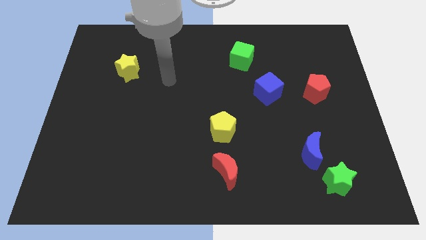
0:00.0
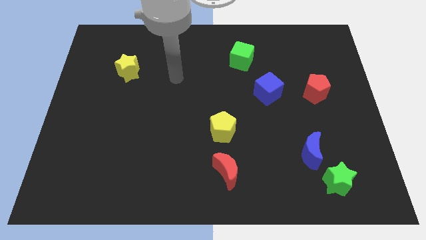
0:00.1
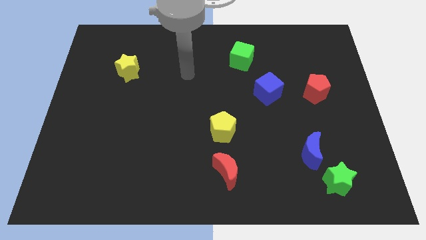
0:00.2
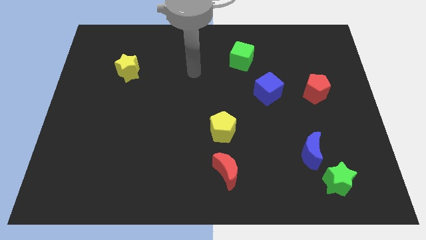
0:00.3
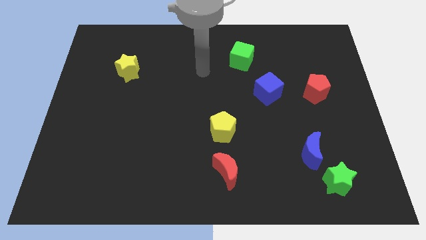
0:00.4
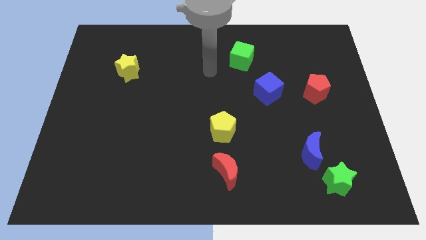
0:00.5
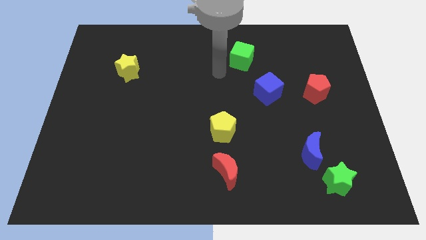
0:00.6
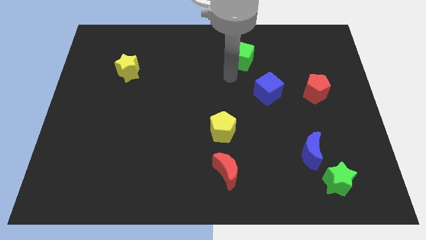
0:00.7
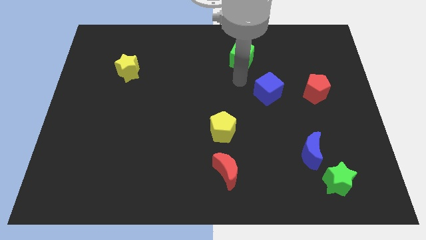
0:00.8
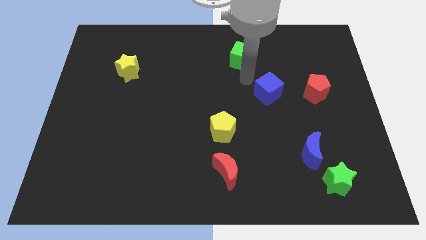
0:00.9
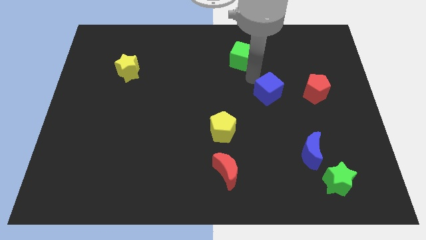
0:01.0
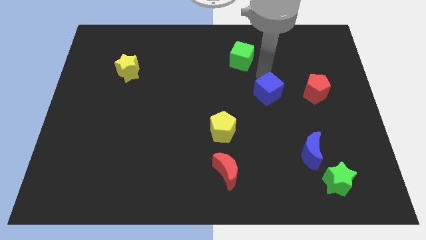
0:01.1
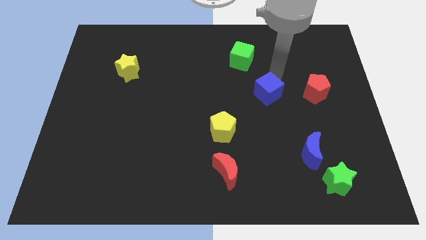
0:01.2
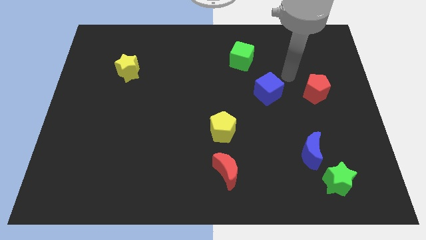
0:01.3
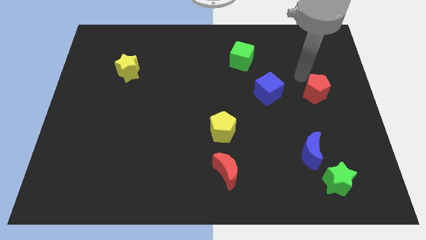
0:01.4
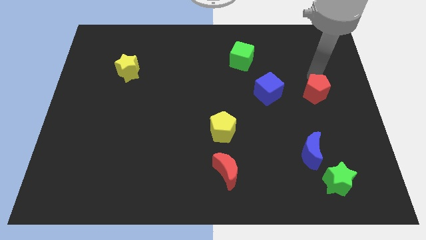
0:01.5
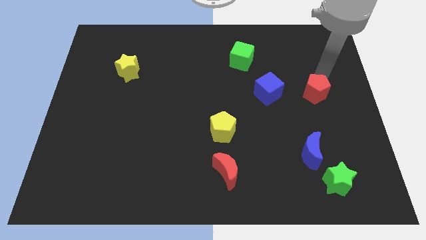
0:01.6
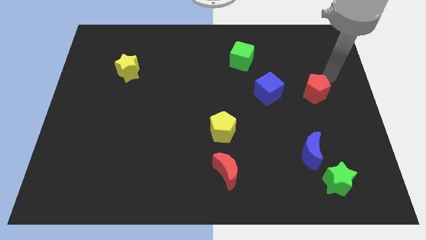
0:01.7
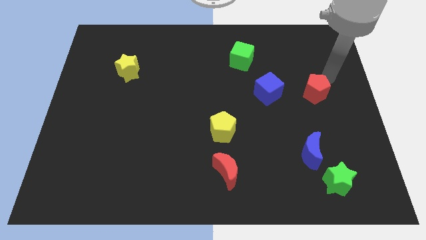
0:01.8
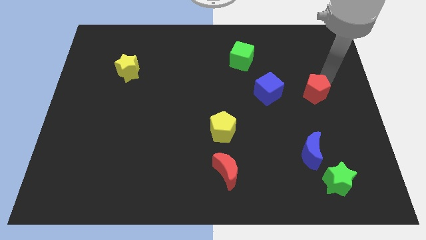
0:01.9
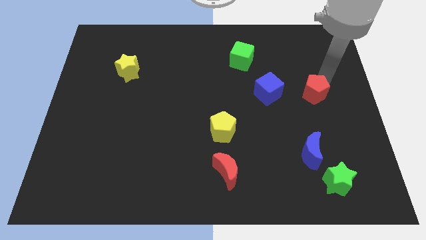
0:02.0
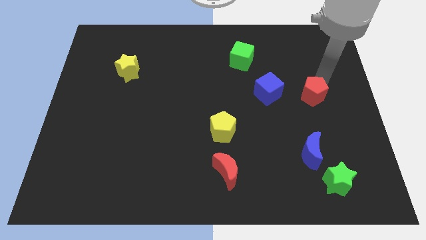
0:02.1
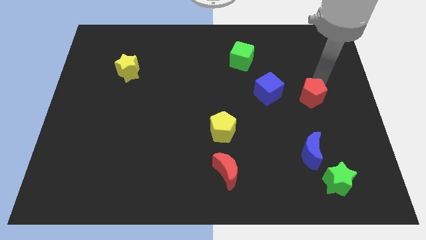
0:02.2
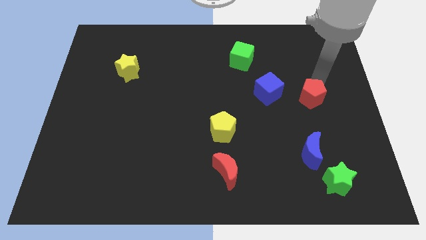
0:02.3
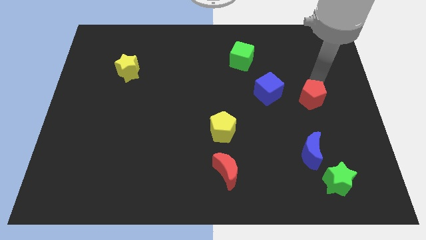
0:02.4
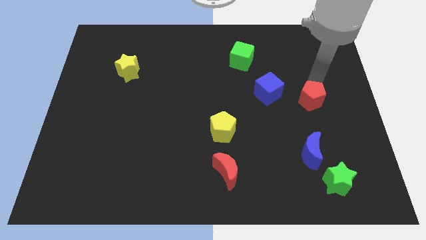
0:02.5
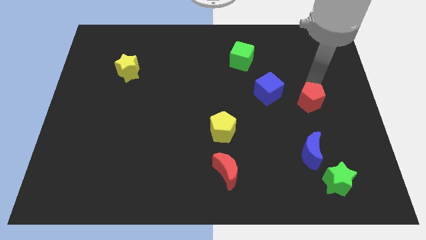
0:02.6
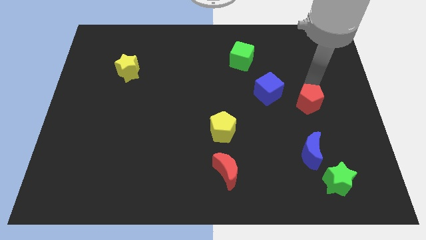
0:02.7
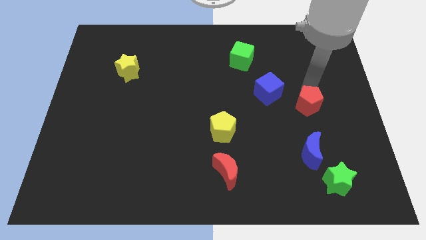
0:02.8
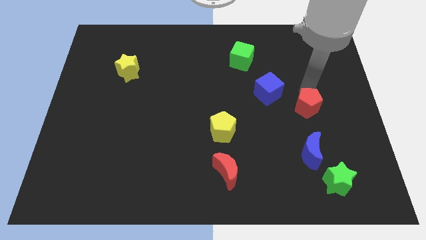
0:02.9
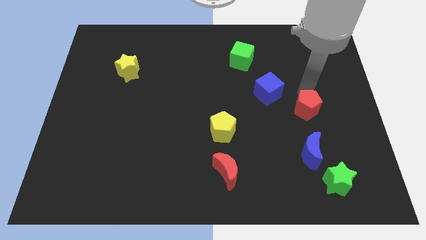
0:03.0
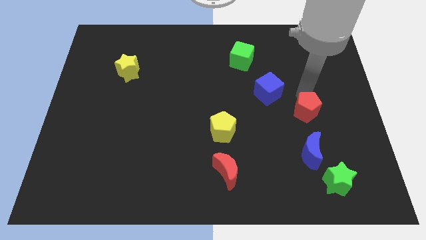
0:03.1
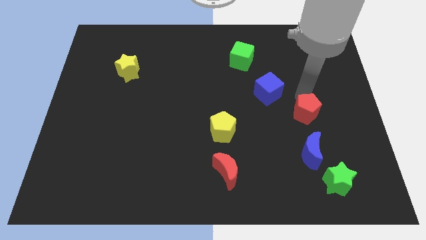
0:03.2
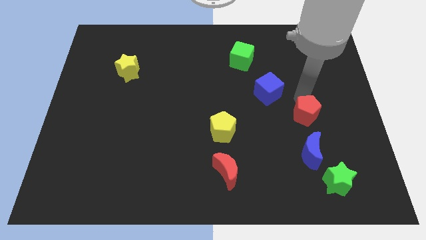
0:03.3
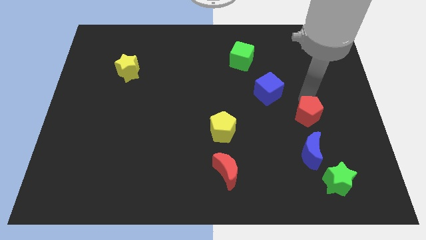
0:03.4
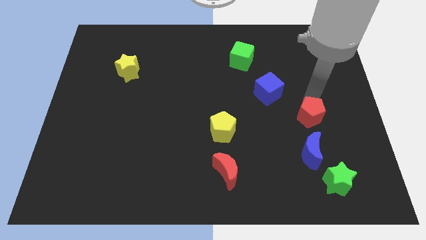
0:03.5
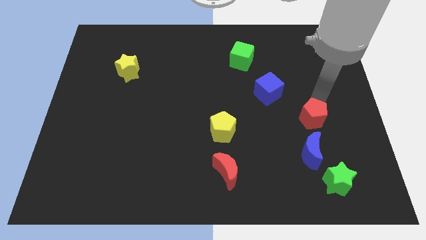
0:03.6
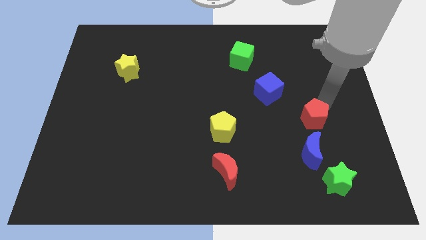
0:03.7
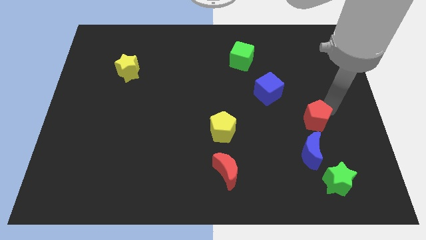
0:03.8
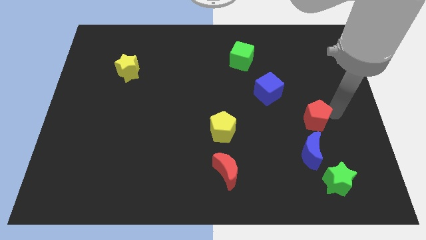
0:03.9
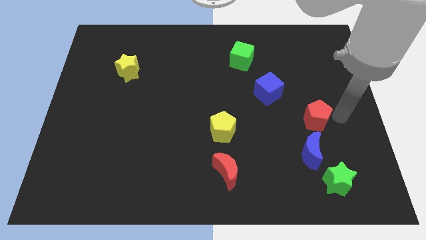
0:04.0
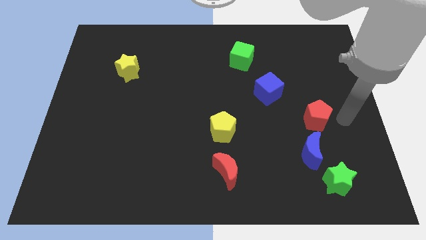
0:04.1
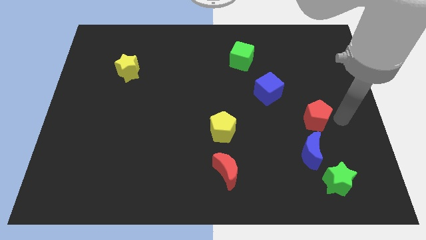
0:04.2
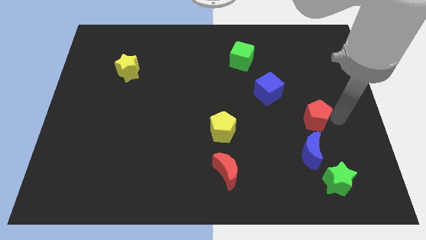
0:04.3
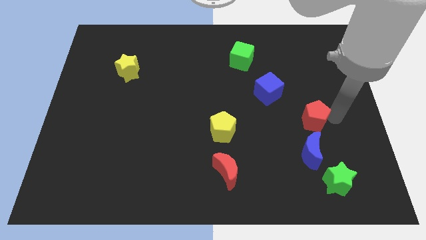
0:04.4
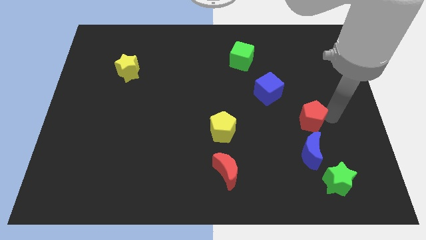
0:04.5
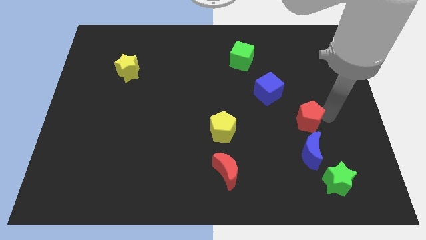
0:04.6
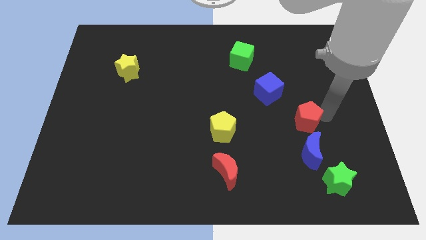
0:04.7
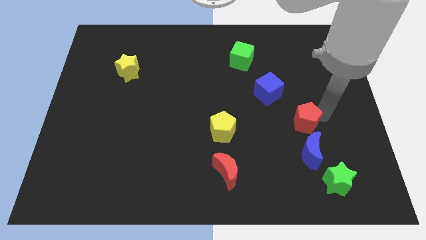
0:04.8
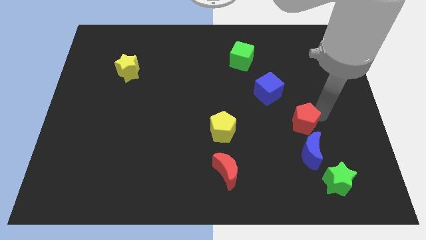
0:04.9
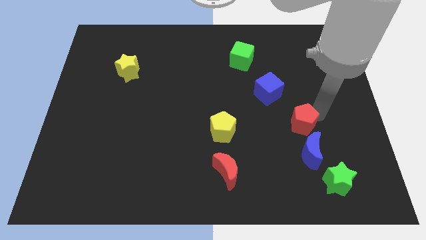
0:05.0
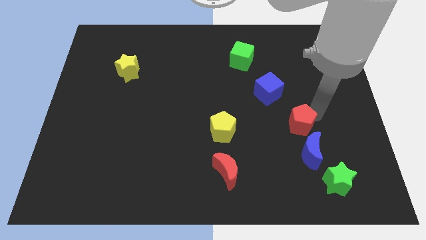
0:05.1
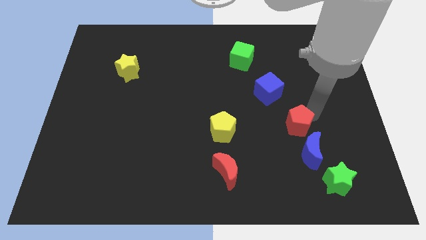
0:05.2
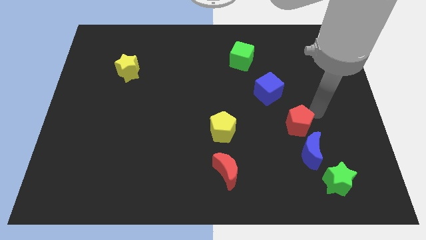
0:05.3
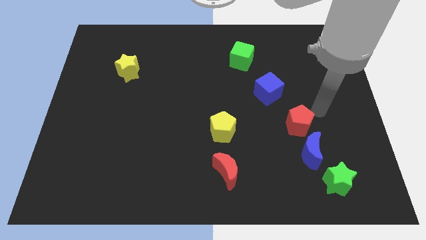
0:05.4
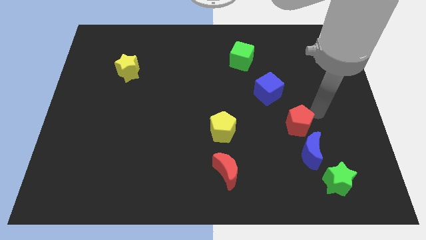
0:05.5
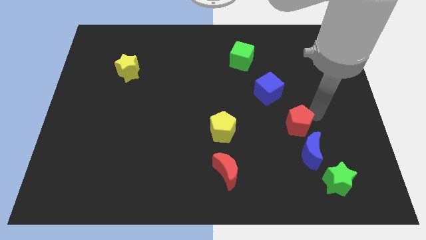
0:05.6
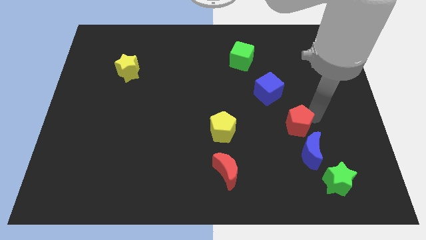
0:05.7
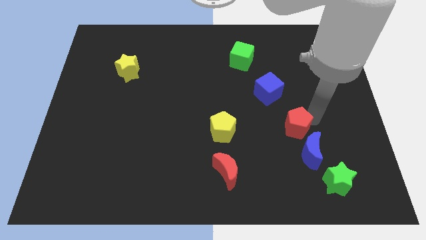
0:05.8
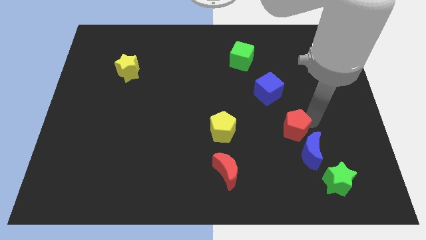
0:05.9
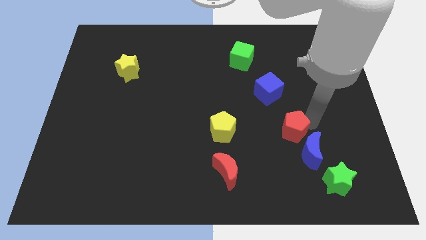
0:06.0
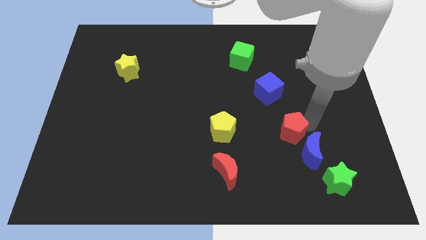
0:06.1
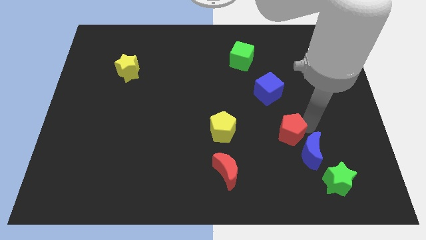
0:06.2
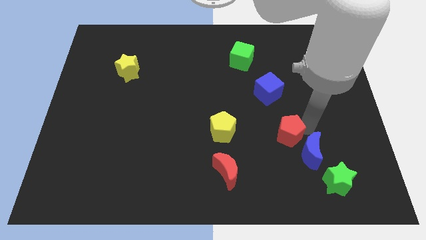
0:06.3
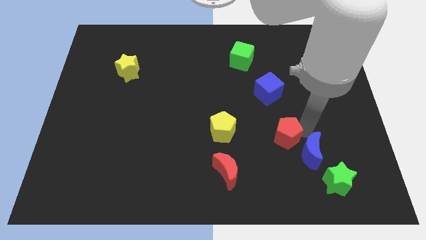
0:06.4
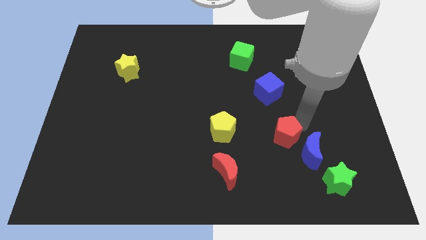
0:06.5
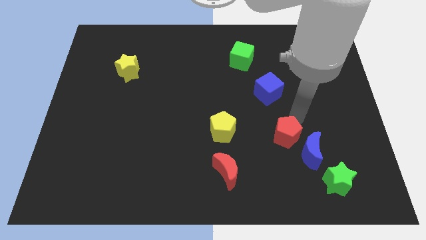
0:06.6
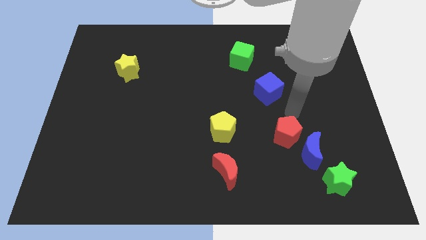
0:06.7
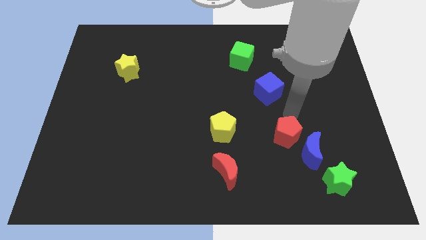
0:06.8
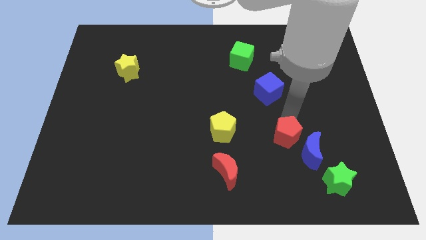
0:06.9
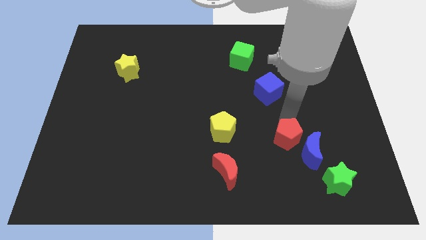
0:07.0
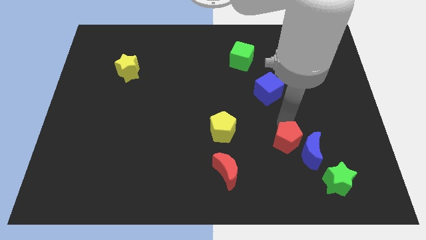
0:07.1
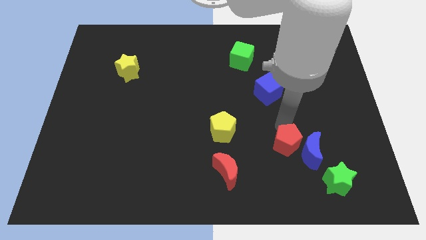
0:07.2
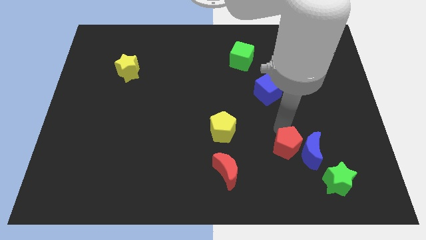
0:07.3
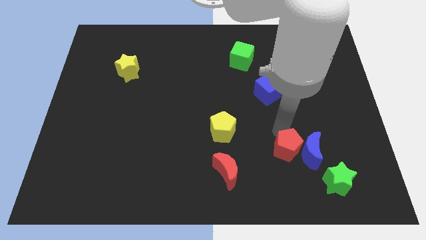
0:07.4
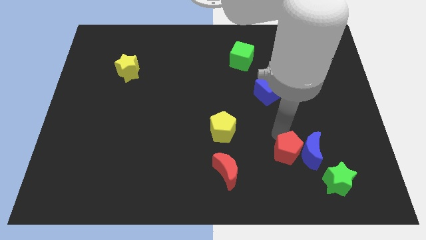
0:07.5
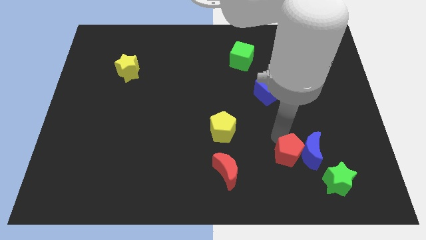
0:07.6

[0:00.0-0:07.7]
move the red pentagon just right of the red moon
